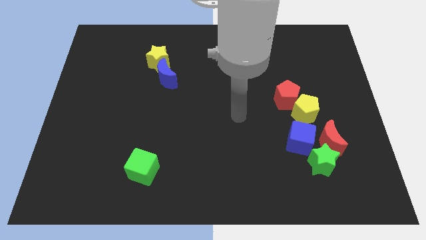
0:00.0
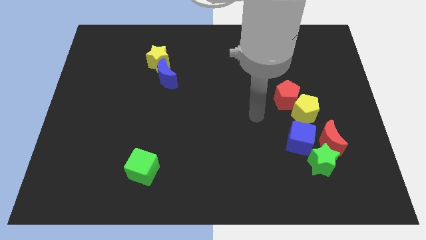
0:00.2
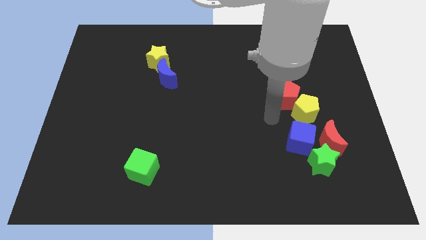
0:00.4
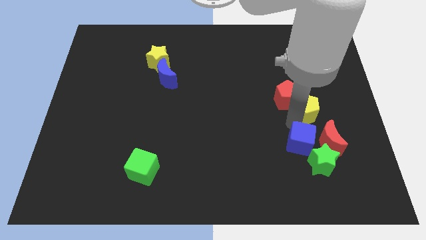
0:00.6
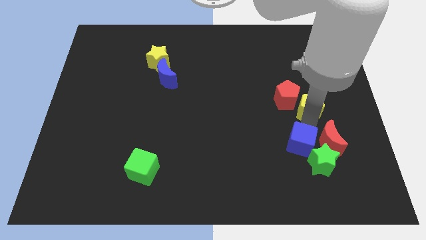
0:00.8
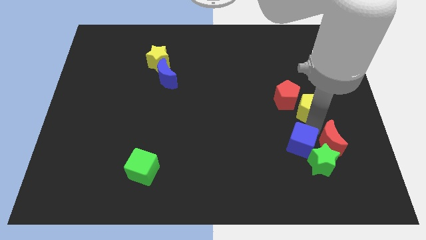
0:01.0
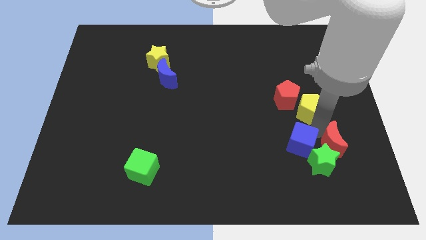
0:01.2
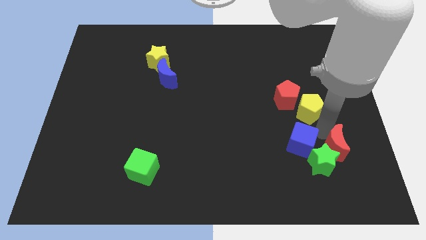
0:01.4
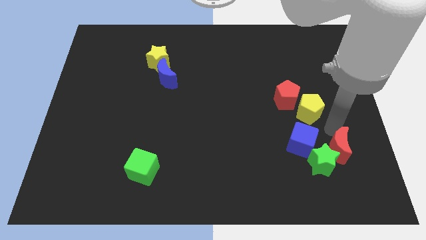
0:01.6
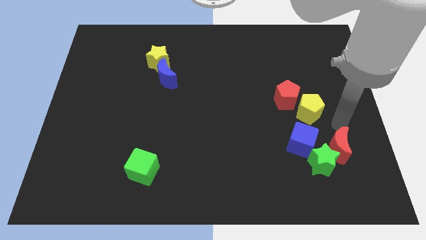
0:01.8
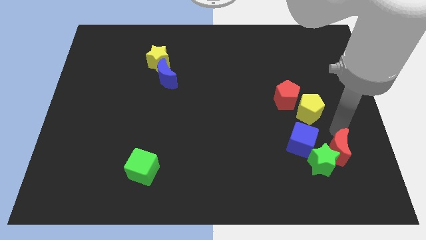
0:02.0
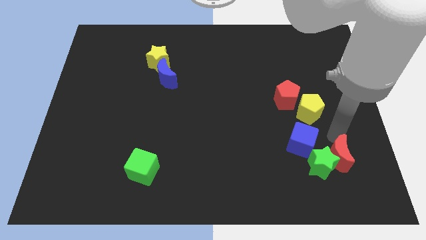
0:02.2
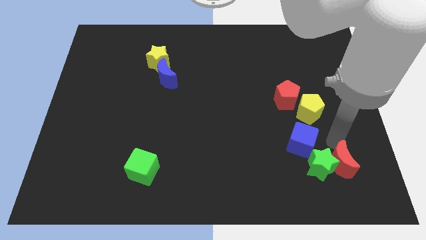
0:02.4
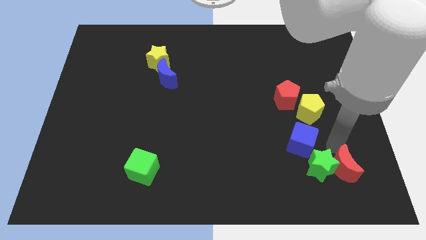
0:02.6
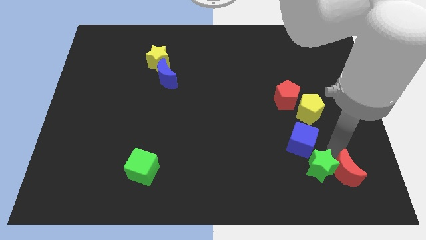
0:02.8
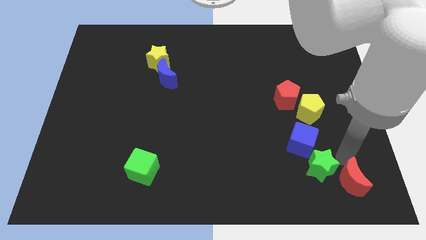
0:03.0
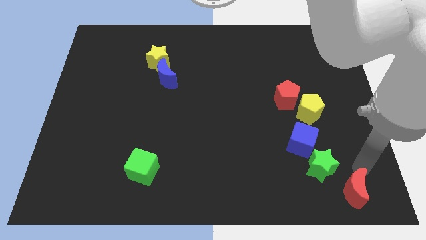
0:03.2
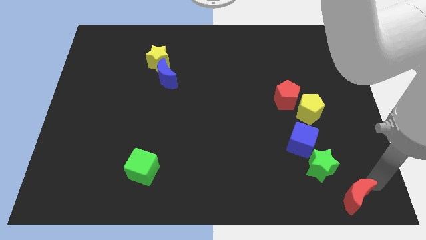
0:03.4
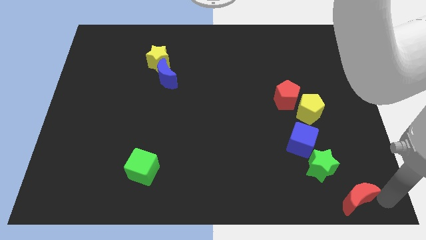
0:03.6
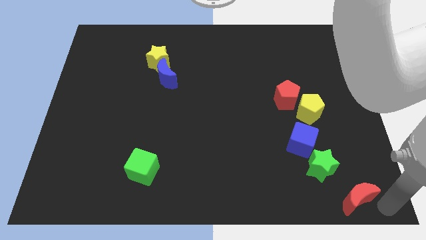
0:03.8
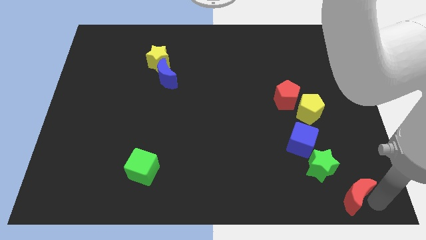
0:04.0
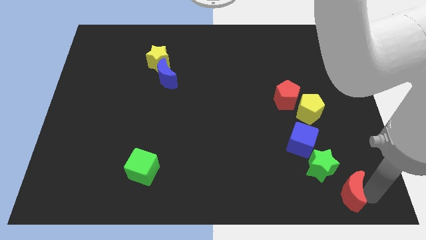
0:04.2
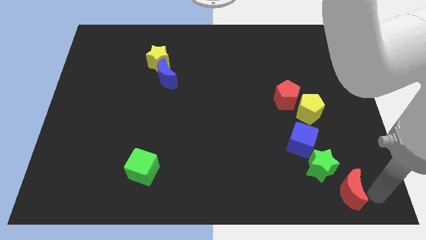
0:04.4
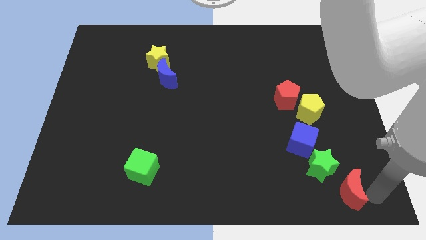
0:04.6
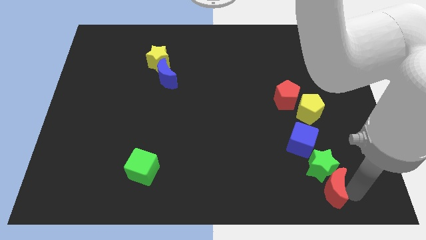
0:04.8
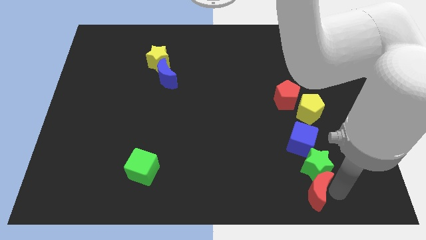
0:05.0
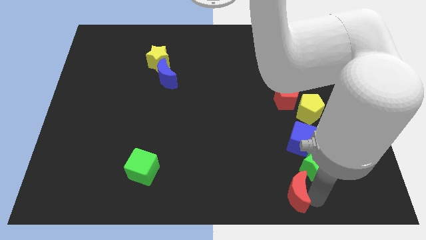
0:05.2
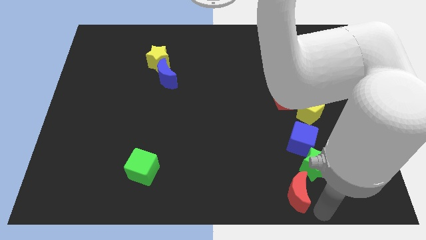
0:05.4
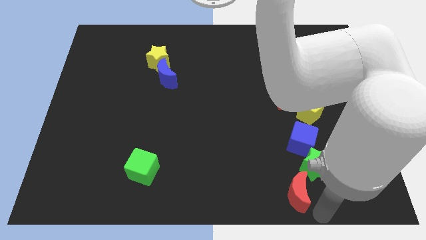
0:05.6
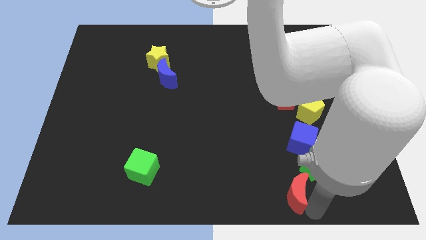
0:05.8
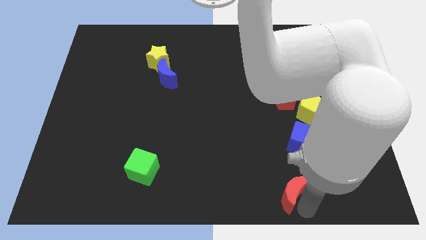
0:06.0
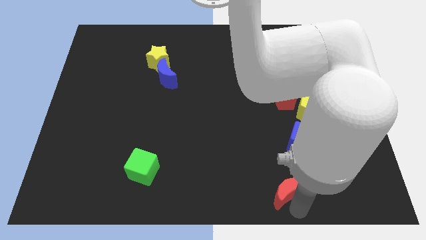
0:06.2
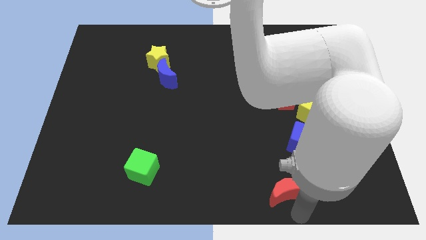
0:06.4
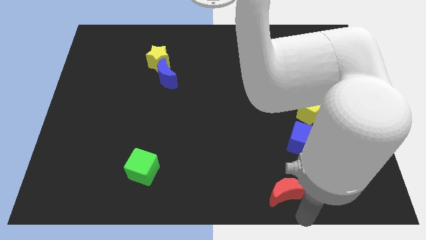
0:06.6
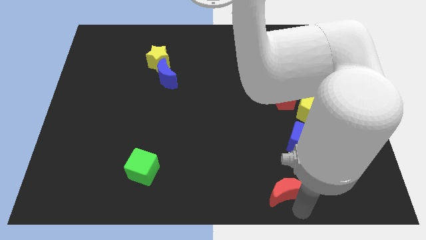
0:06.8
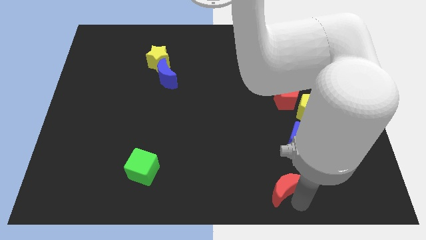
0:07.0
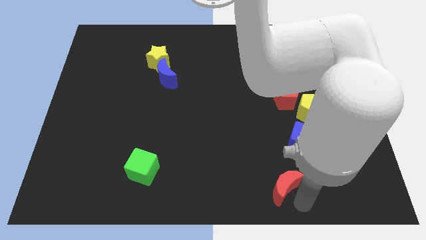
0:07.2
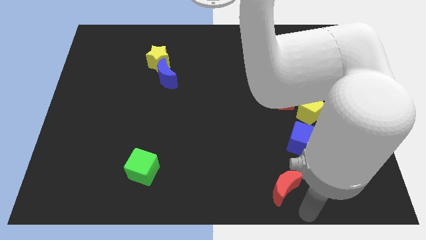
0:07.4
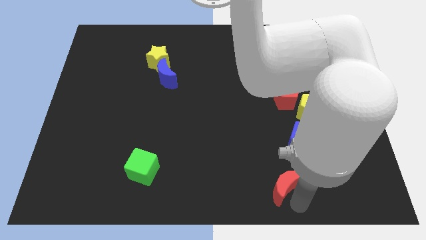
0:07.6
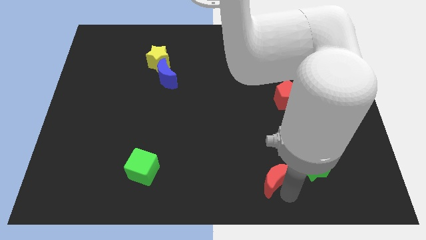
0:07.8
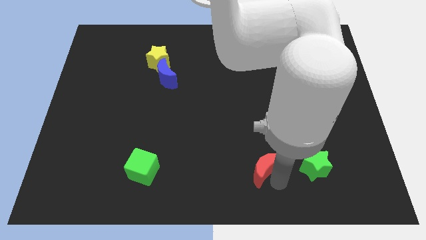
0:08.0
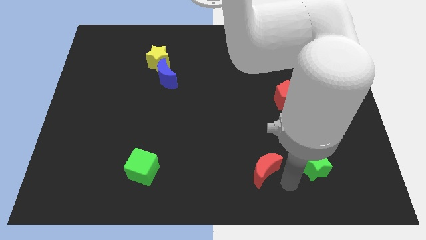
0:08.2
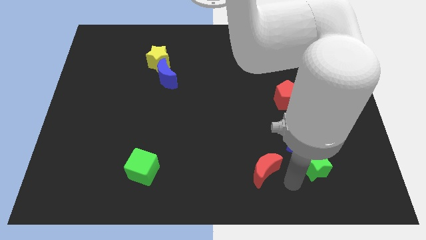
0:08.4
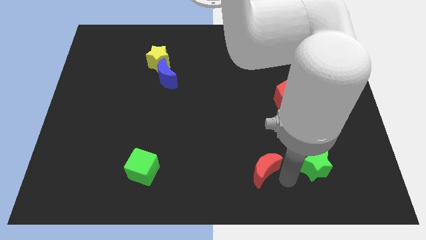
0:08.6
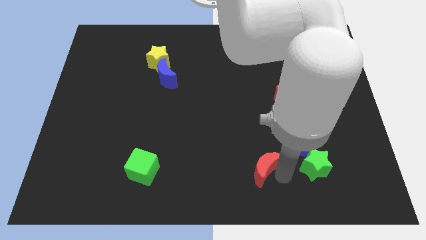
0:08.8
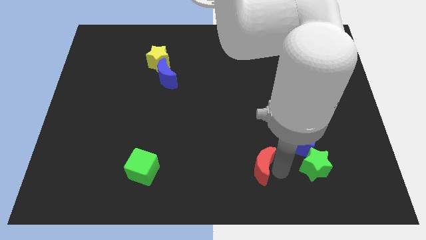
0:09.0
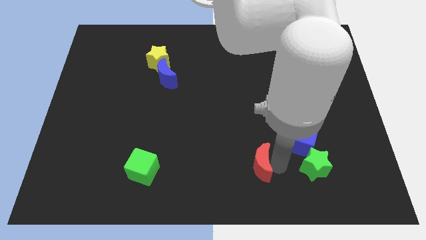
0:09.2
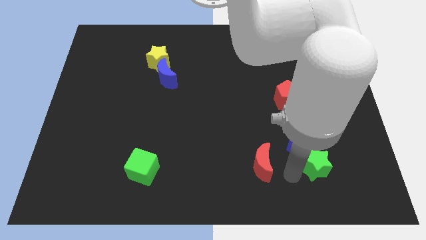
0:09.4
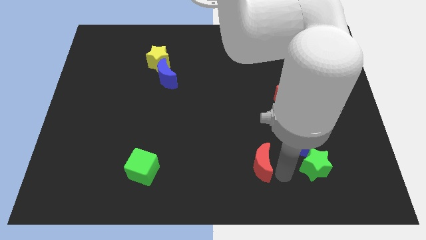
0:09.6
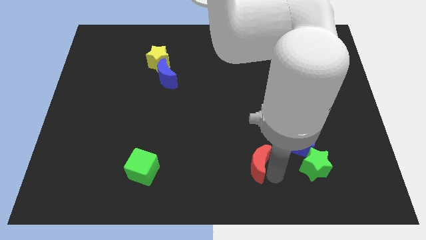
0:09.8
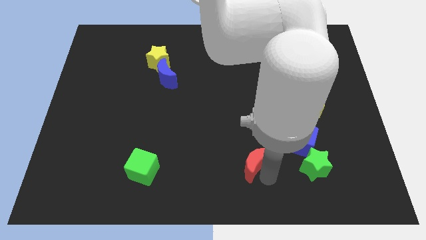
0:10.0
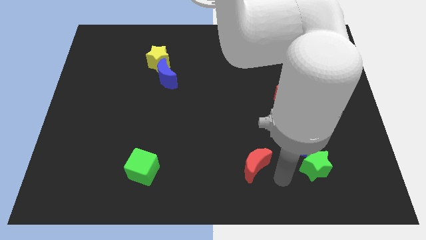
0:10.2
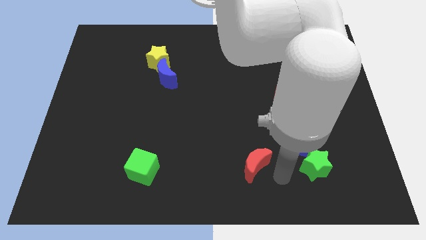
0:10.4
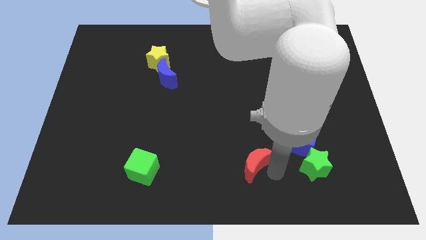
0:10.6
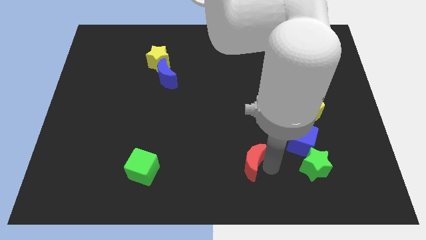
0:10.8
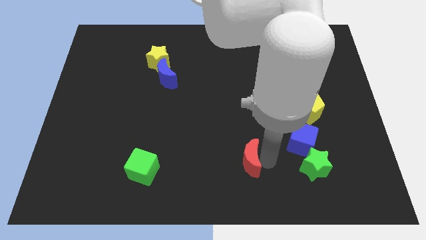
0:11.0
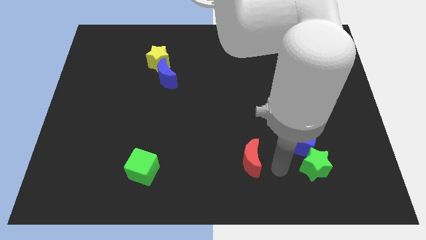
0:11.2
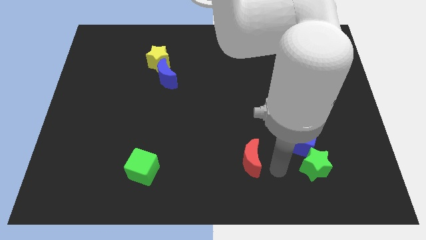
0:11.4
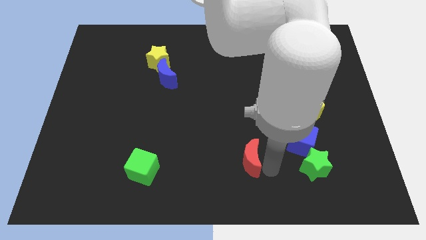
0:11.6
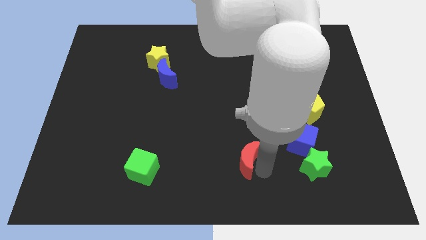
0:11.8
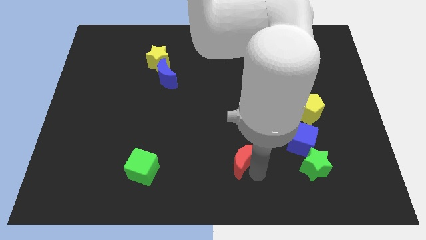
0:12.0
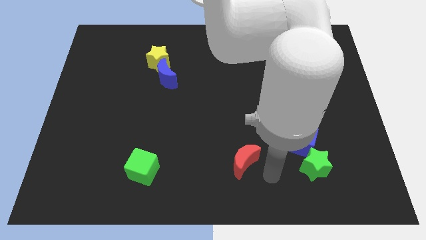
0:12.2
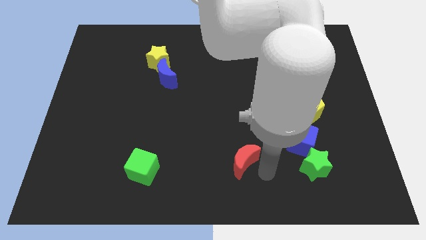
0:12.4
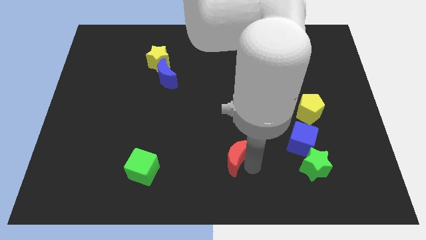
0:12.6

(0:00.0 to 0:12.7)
slide the red moon to the left

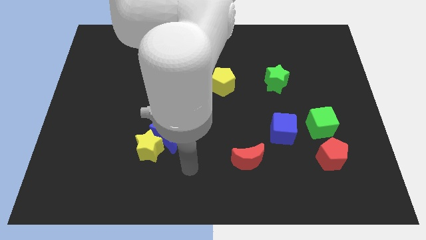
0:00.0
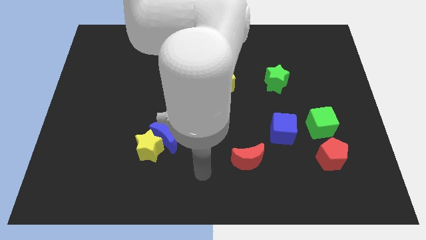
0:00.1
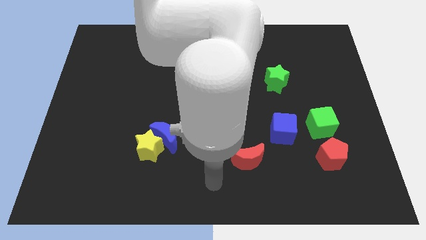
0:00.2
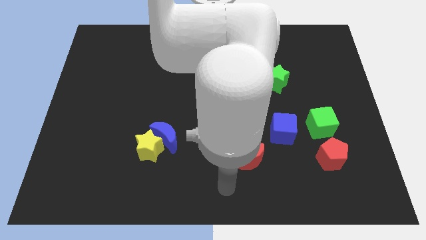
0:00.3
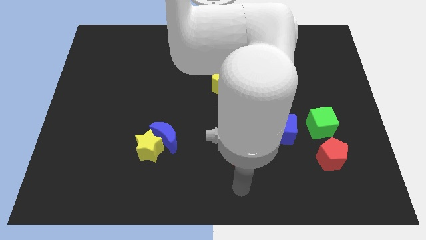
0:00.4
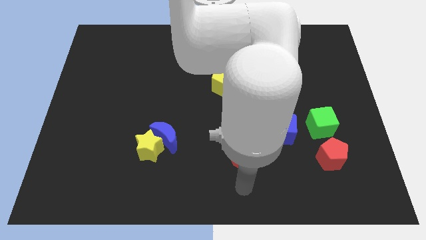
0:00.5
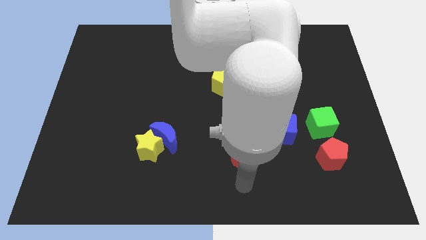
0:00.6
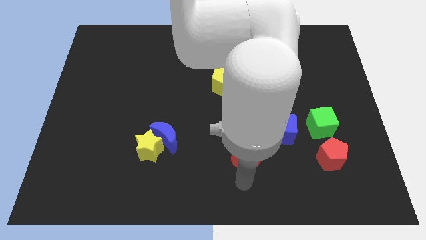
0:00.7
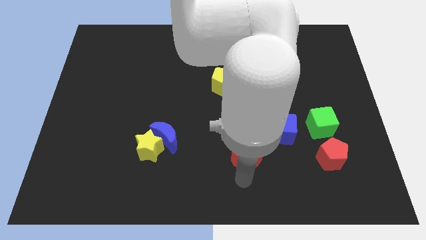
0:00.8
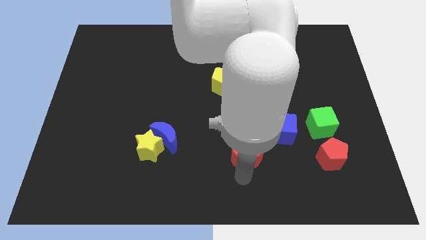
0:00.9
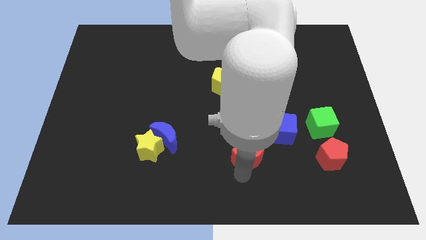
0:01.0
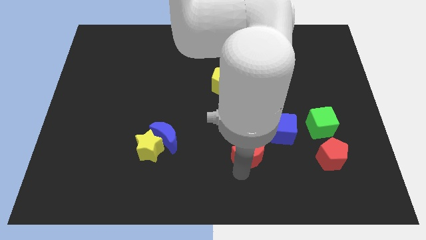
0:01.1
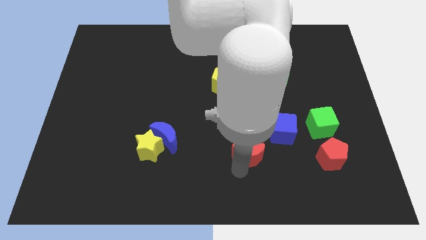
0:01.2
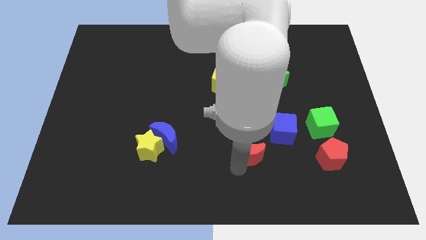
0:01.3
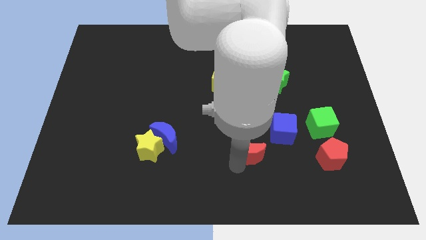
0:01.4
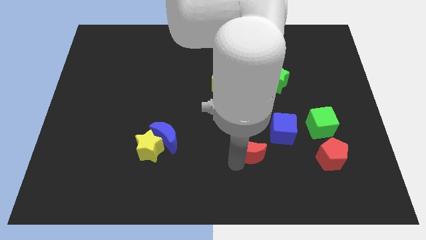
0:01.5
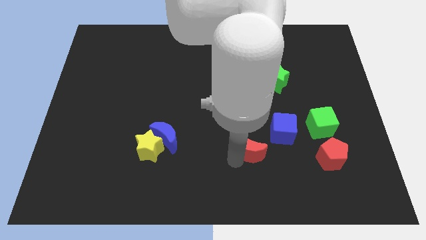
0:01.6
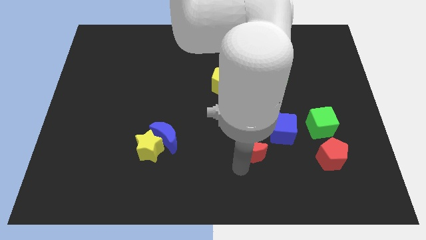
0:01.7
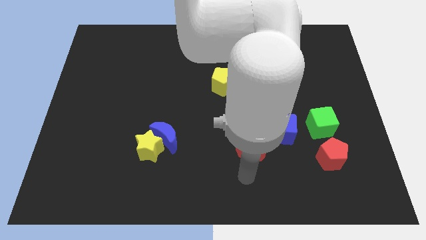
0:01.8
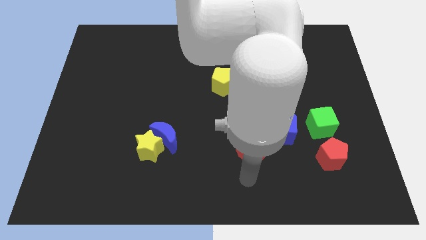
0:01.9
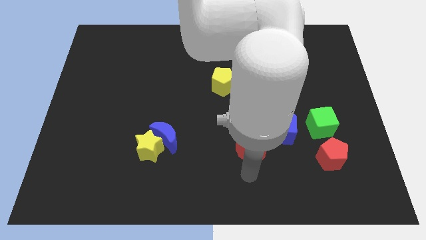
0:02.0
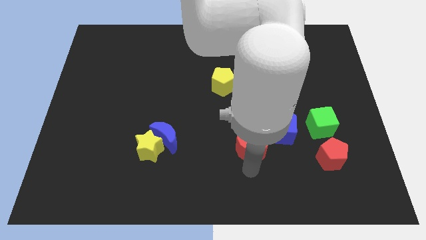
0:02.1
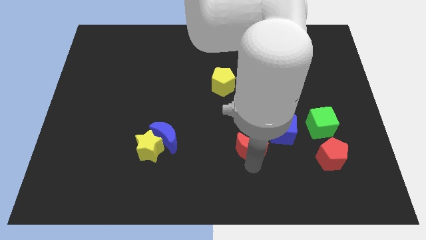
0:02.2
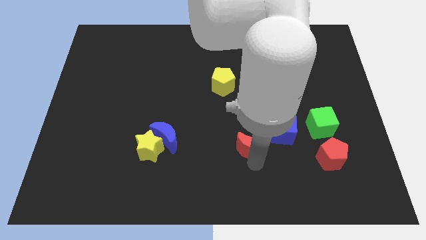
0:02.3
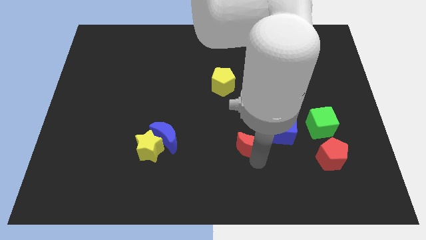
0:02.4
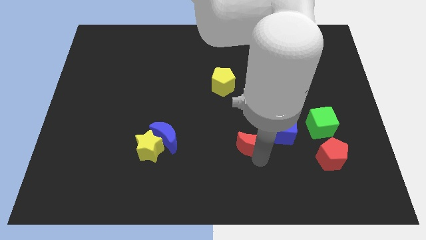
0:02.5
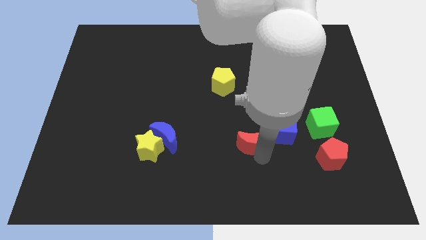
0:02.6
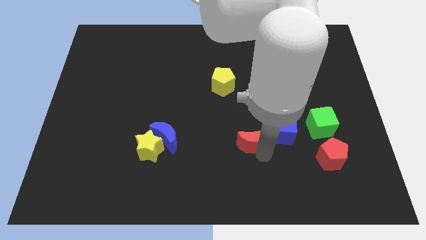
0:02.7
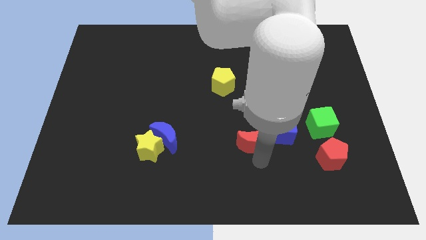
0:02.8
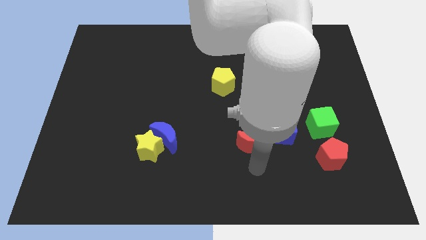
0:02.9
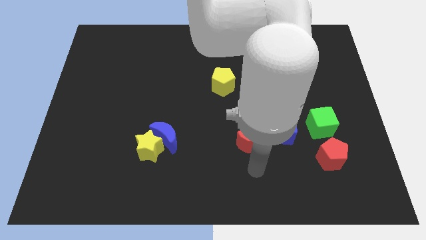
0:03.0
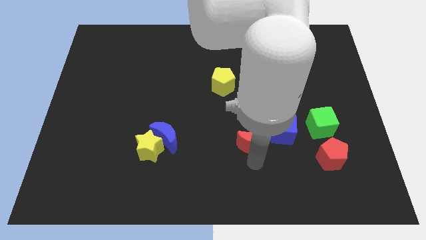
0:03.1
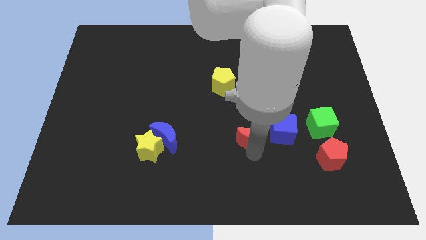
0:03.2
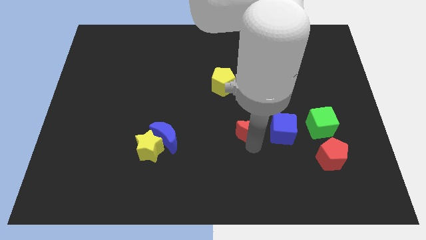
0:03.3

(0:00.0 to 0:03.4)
slightly slide the red moon upwards
